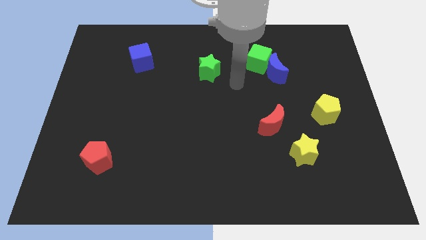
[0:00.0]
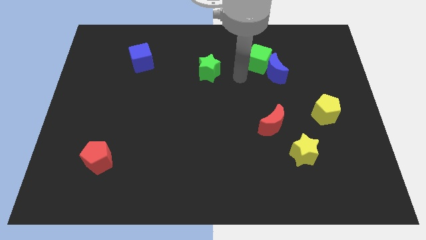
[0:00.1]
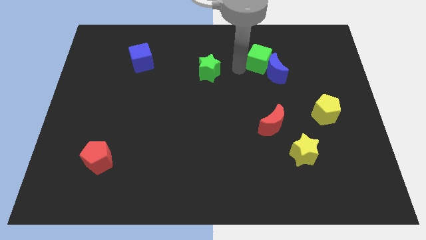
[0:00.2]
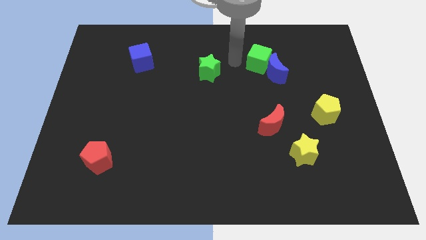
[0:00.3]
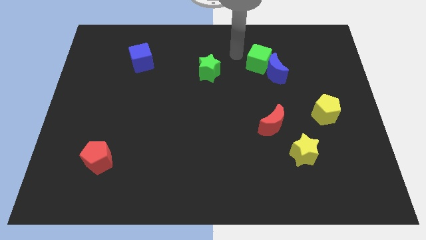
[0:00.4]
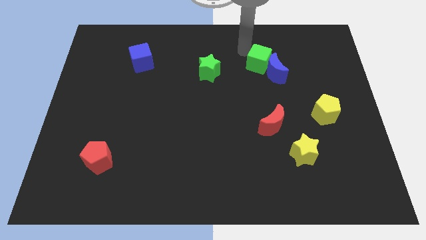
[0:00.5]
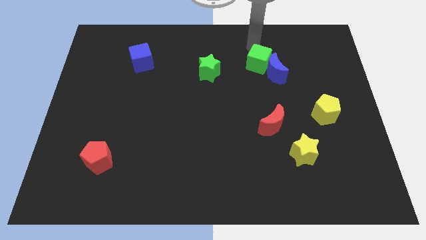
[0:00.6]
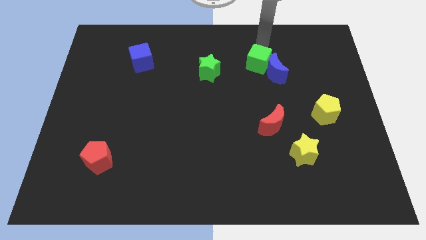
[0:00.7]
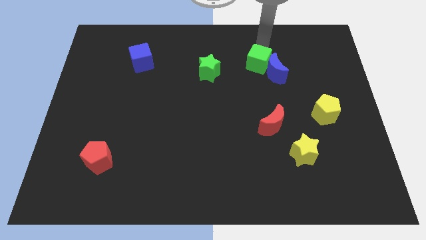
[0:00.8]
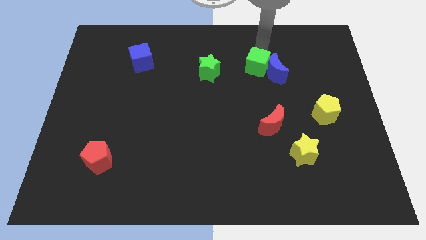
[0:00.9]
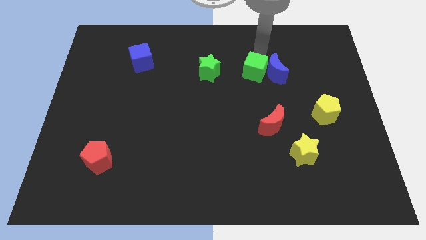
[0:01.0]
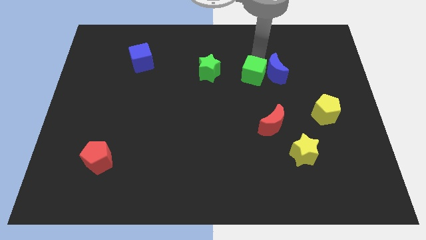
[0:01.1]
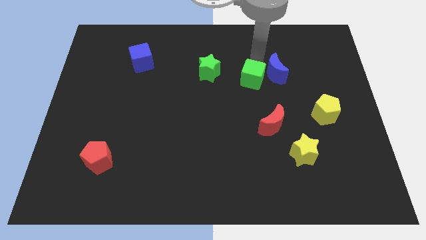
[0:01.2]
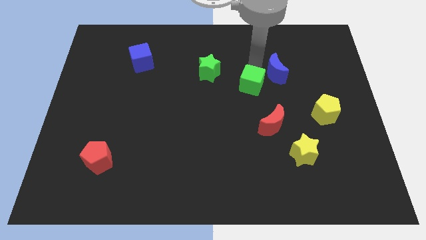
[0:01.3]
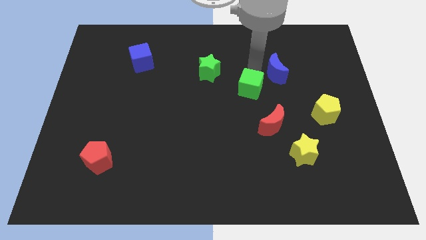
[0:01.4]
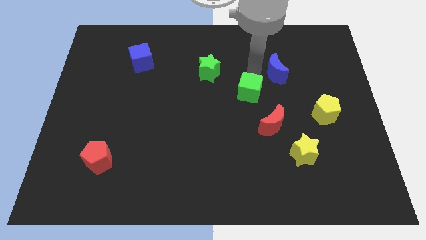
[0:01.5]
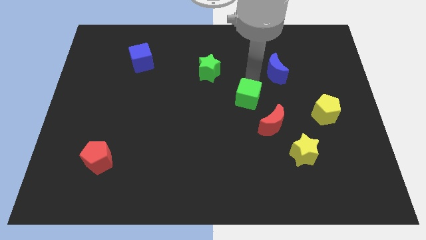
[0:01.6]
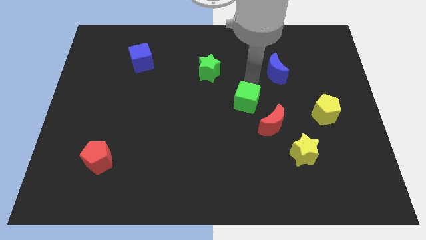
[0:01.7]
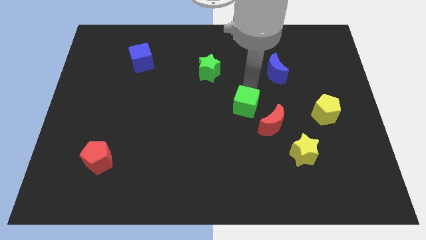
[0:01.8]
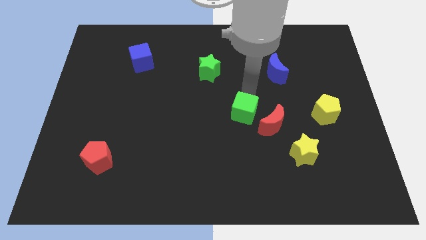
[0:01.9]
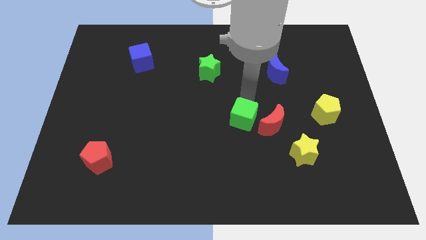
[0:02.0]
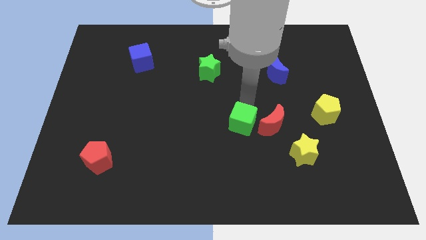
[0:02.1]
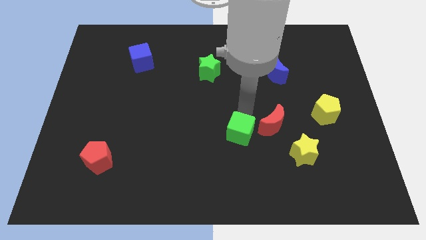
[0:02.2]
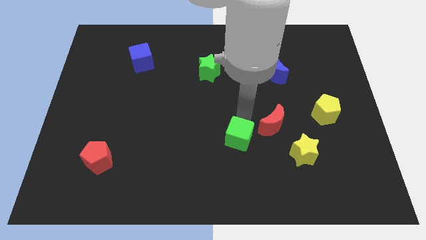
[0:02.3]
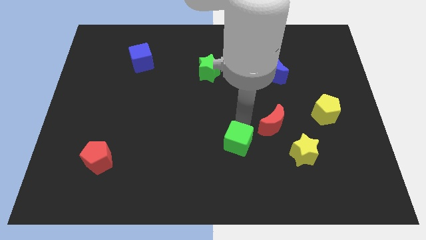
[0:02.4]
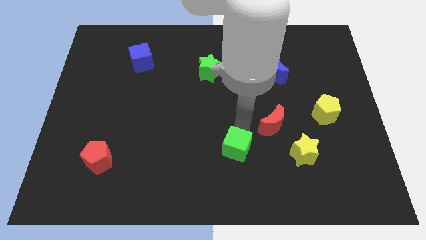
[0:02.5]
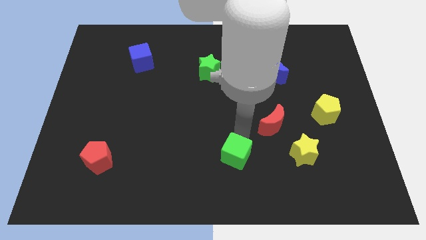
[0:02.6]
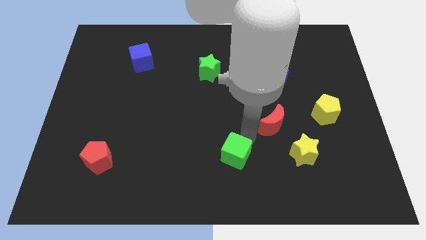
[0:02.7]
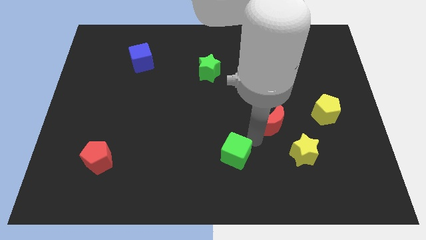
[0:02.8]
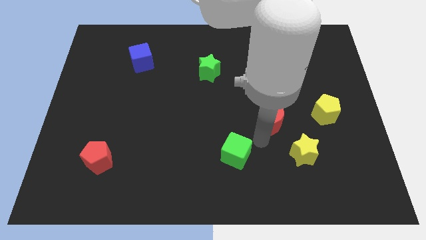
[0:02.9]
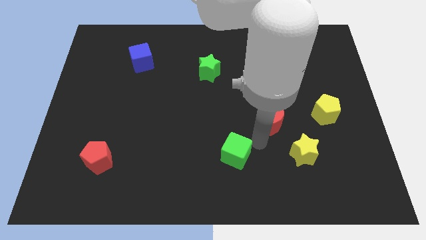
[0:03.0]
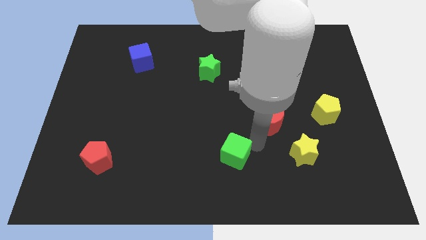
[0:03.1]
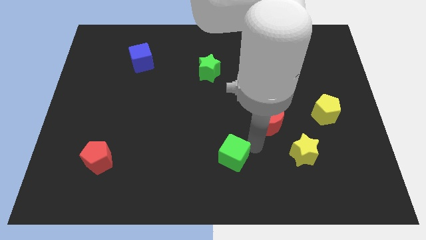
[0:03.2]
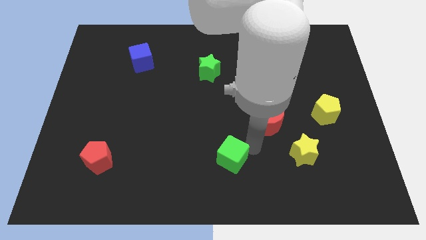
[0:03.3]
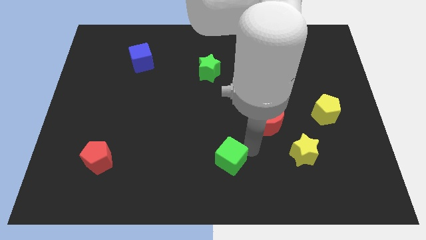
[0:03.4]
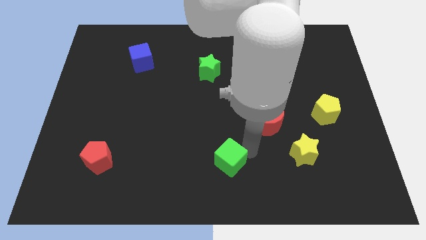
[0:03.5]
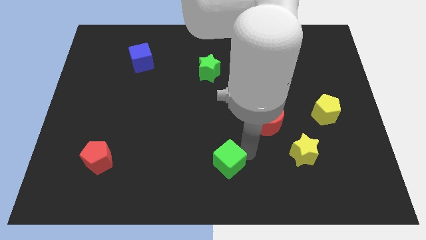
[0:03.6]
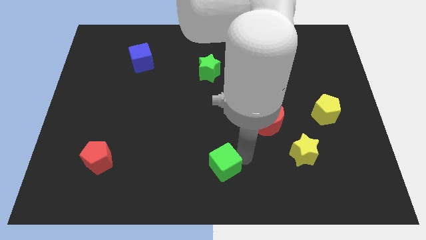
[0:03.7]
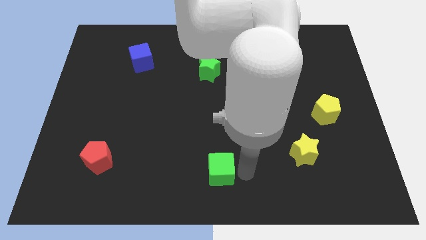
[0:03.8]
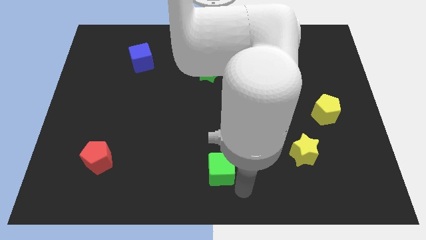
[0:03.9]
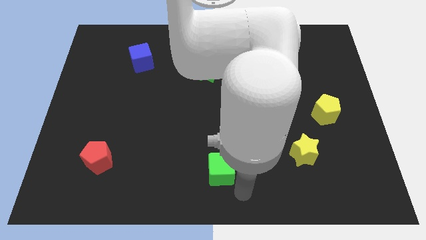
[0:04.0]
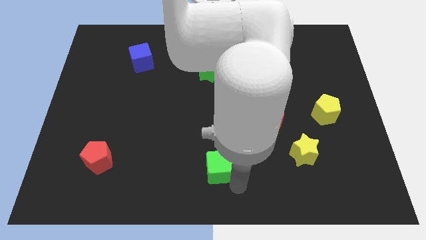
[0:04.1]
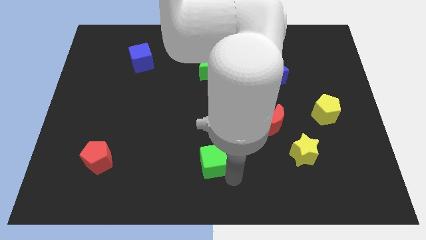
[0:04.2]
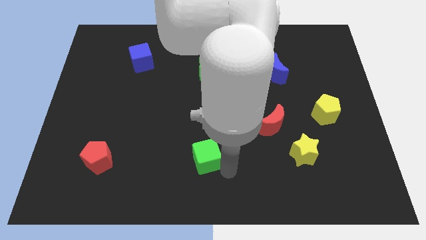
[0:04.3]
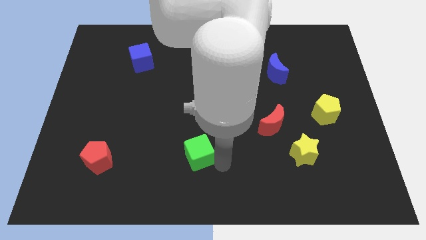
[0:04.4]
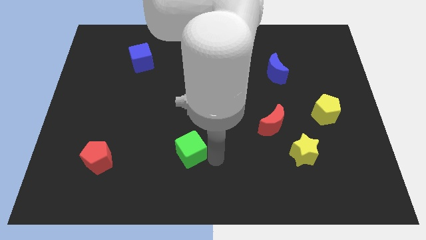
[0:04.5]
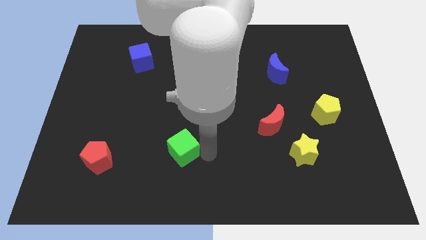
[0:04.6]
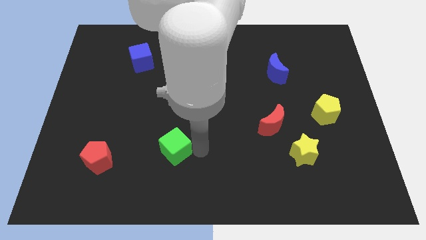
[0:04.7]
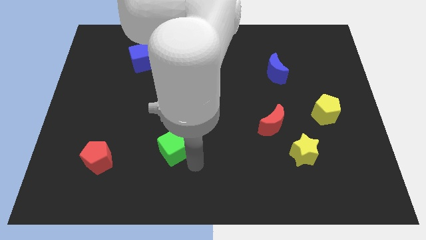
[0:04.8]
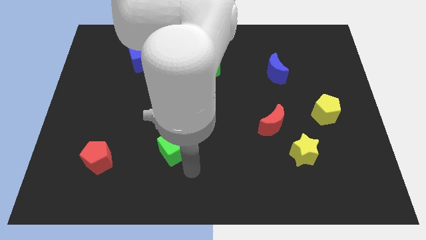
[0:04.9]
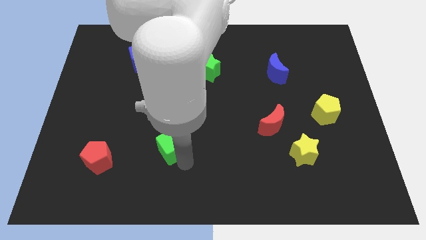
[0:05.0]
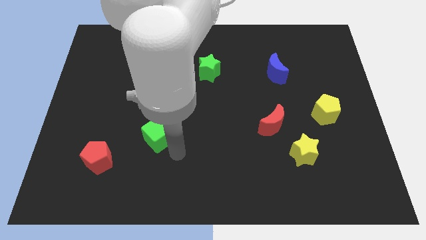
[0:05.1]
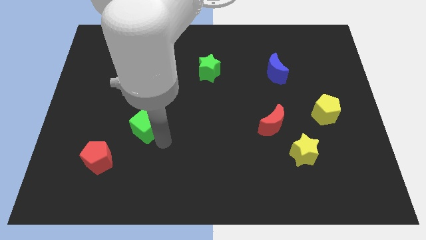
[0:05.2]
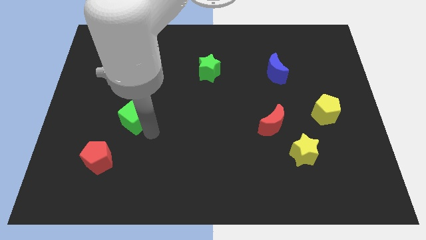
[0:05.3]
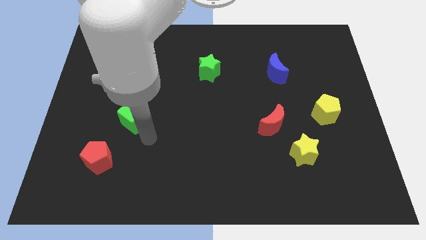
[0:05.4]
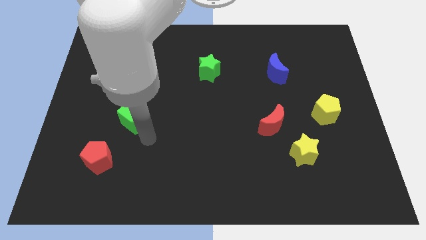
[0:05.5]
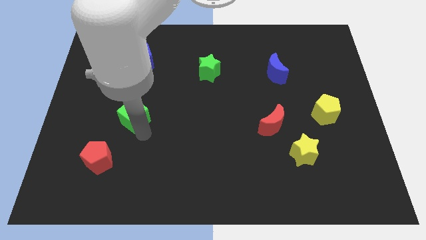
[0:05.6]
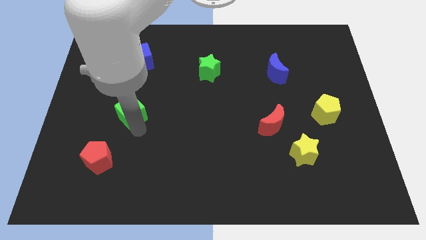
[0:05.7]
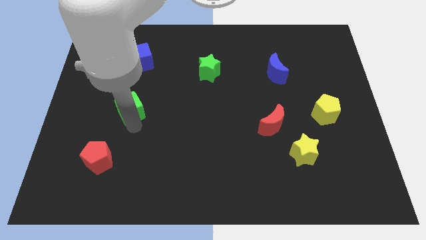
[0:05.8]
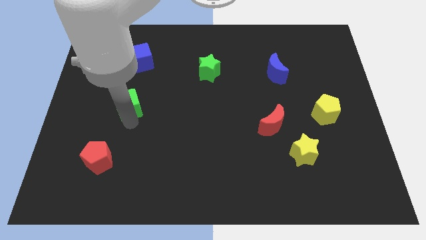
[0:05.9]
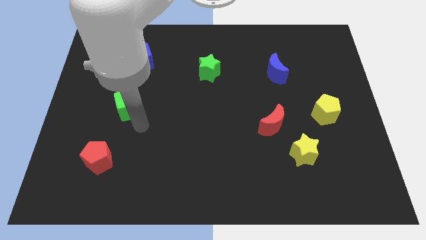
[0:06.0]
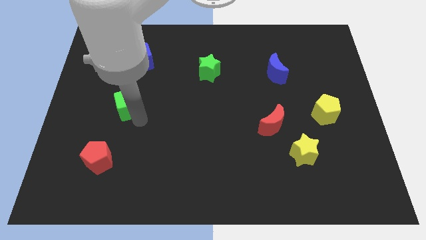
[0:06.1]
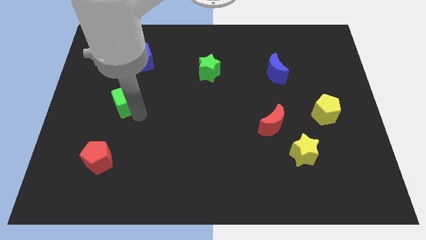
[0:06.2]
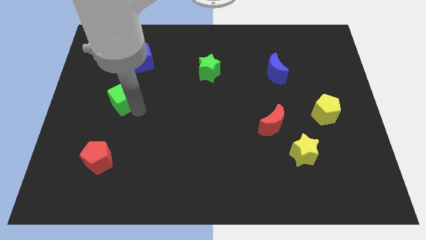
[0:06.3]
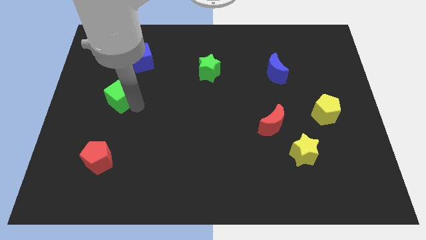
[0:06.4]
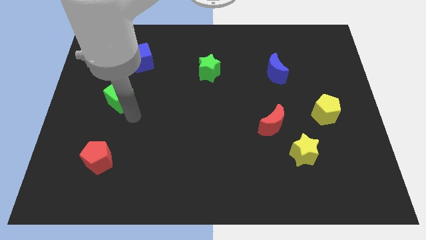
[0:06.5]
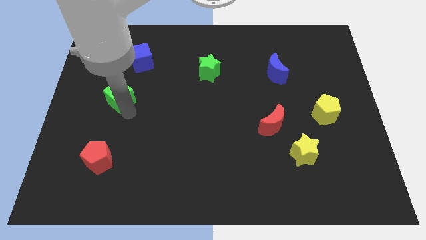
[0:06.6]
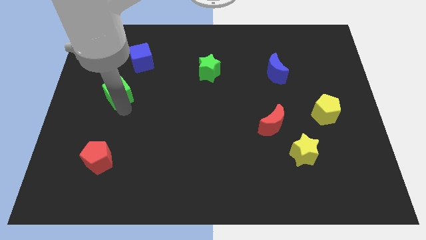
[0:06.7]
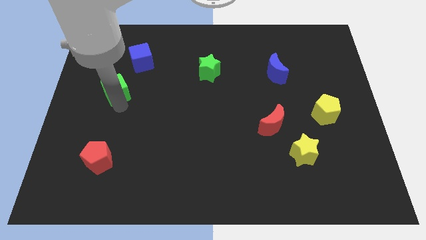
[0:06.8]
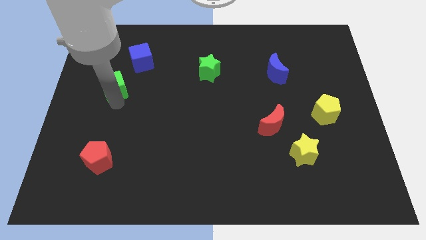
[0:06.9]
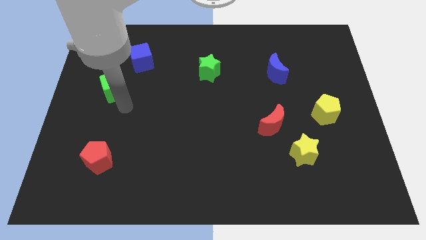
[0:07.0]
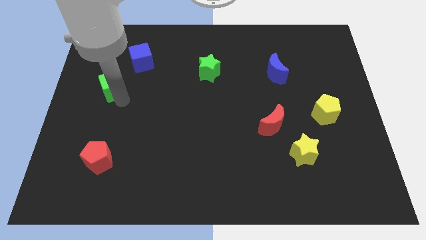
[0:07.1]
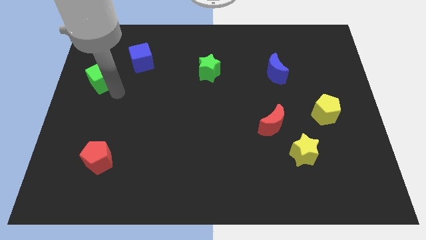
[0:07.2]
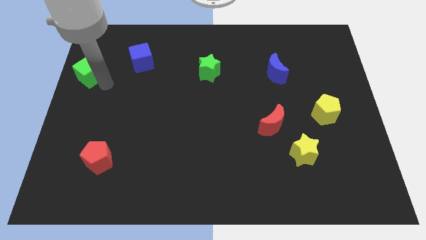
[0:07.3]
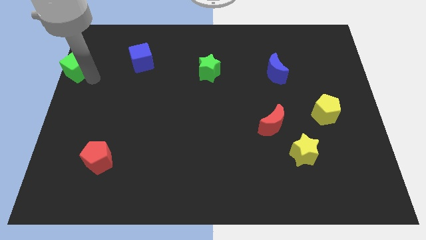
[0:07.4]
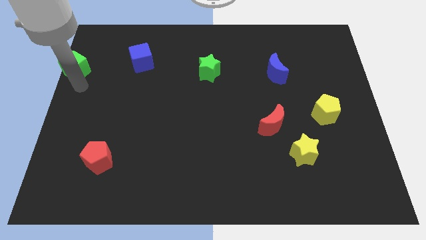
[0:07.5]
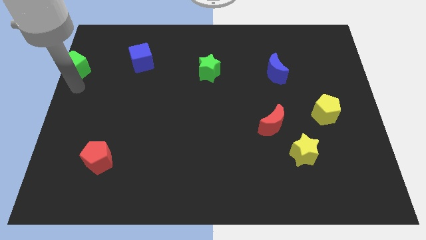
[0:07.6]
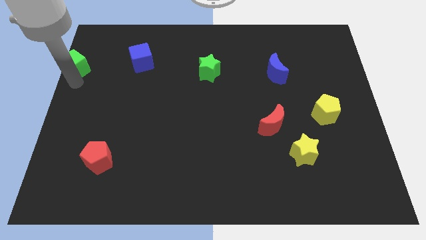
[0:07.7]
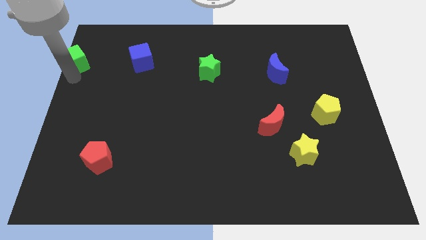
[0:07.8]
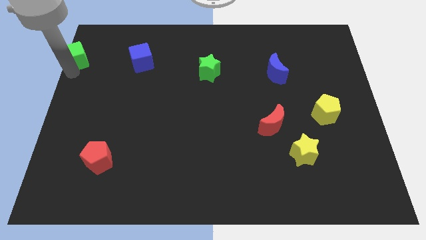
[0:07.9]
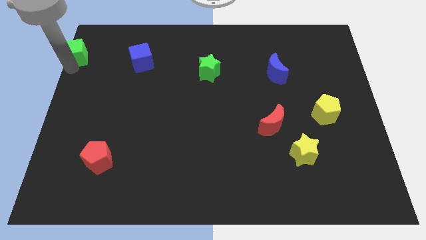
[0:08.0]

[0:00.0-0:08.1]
slide the green cube to the top left
